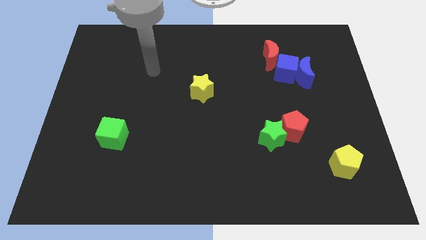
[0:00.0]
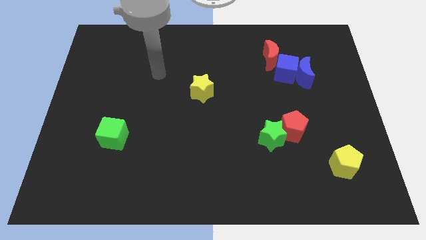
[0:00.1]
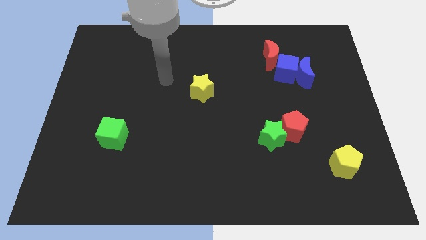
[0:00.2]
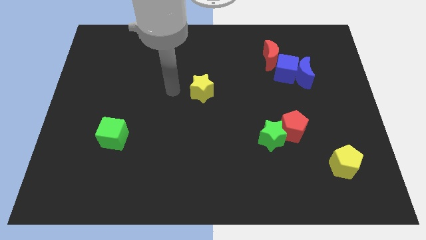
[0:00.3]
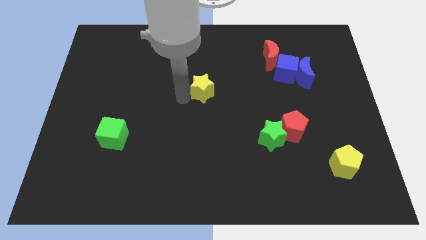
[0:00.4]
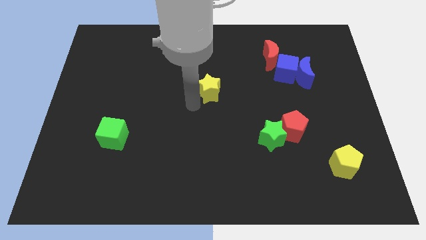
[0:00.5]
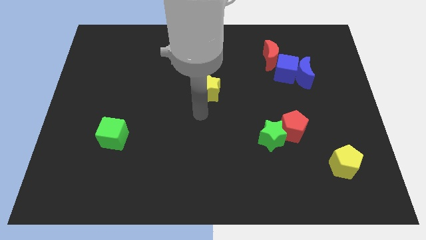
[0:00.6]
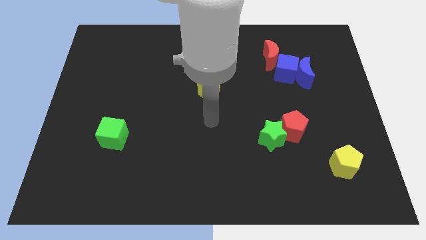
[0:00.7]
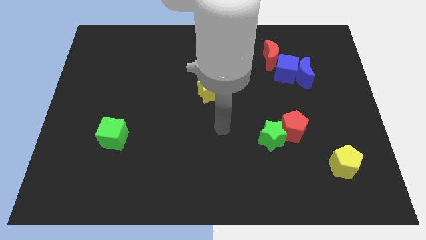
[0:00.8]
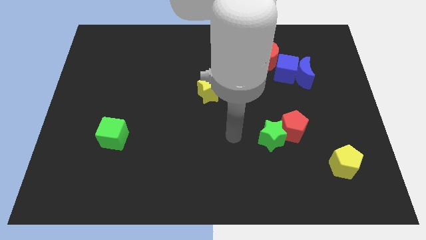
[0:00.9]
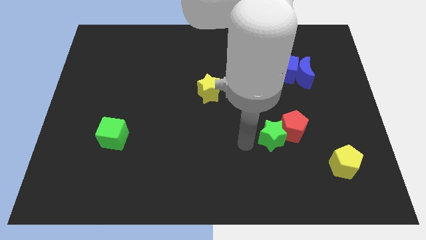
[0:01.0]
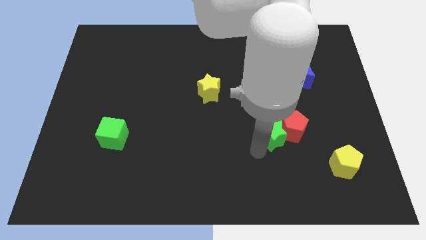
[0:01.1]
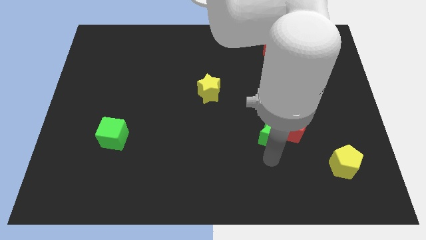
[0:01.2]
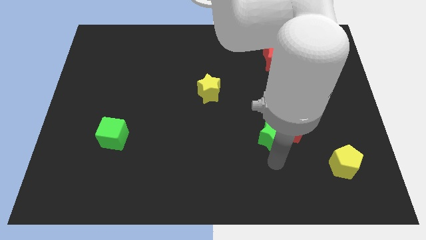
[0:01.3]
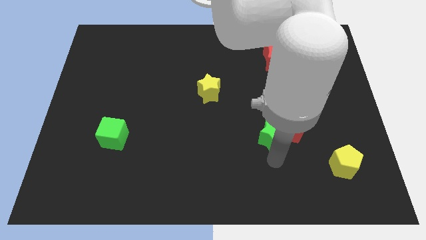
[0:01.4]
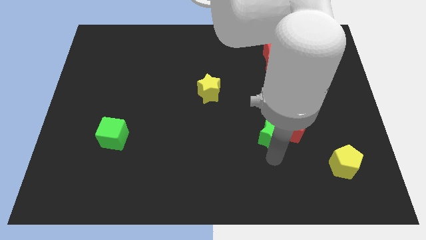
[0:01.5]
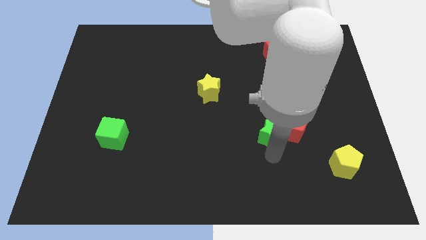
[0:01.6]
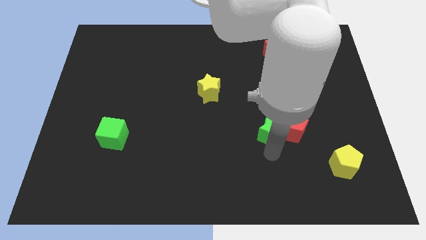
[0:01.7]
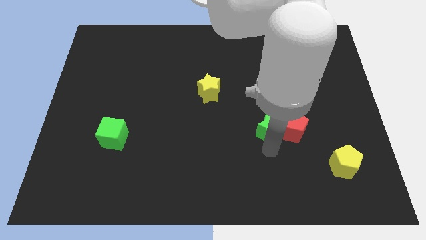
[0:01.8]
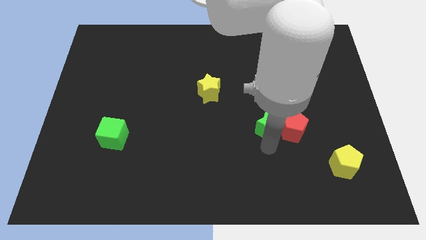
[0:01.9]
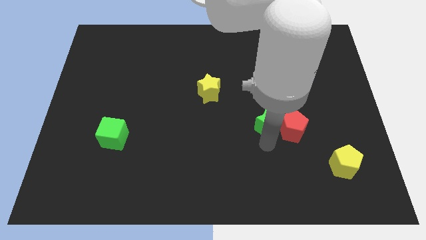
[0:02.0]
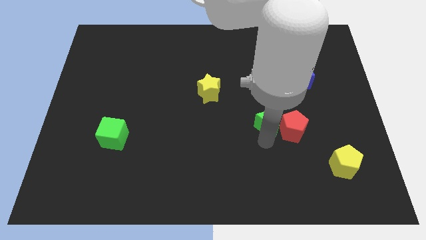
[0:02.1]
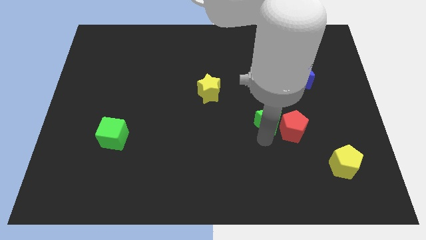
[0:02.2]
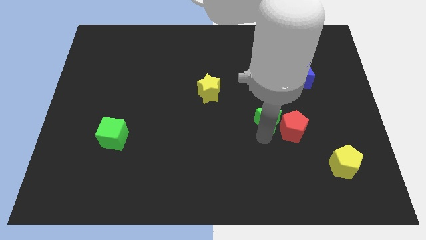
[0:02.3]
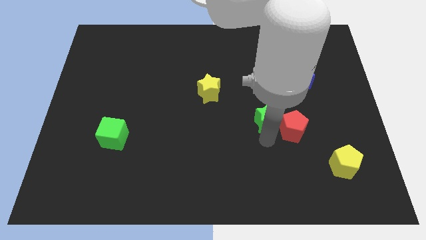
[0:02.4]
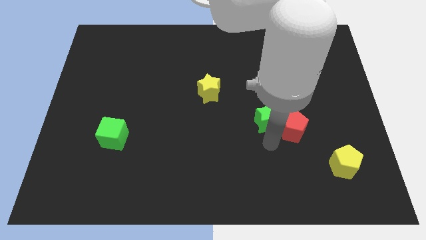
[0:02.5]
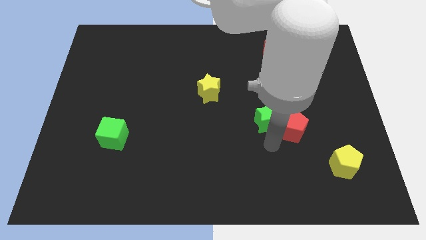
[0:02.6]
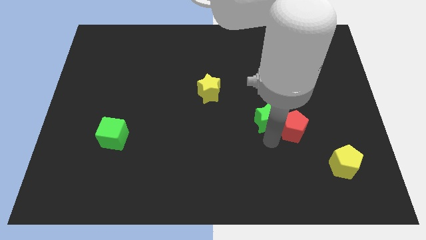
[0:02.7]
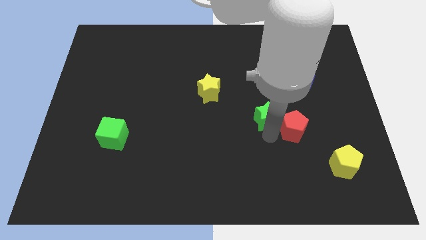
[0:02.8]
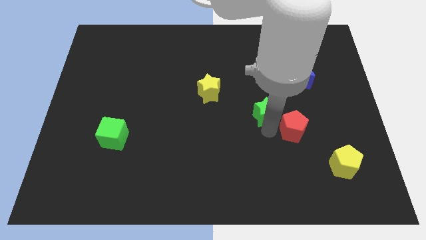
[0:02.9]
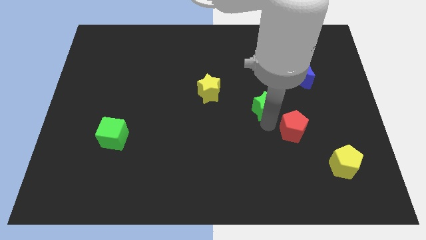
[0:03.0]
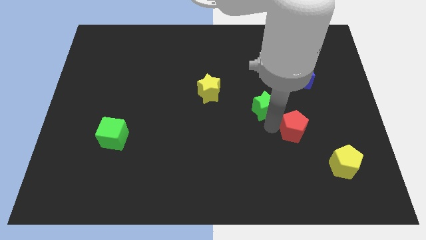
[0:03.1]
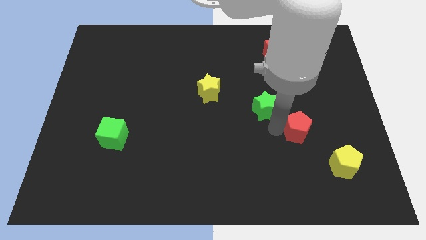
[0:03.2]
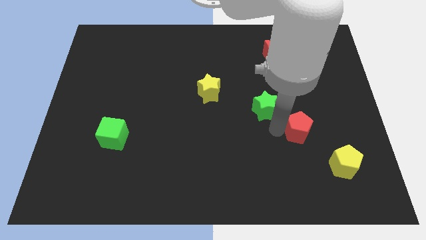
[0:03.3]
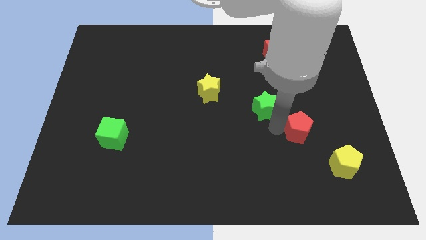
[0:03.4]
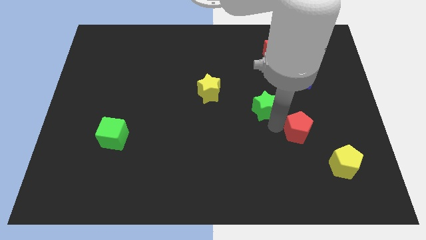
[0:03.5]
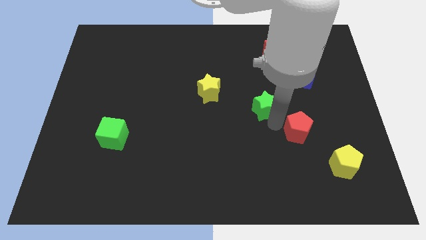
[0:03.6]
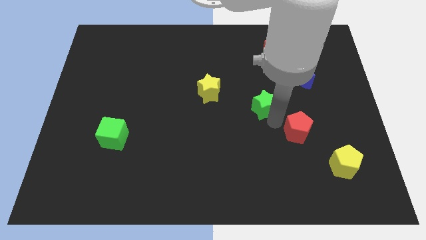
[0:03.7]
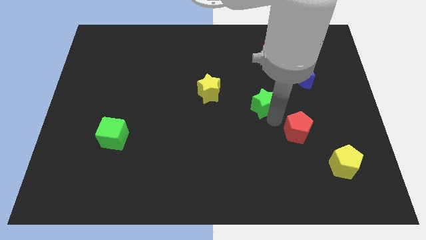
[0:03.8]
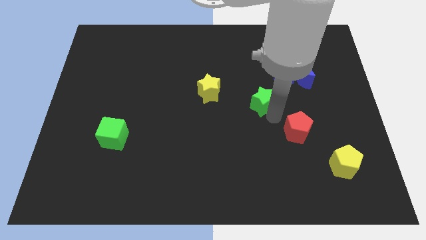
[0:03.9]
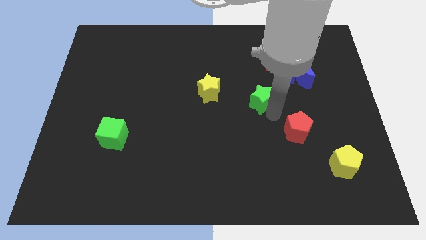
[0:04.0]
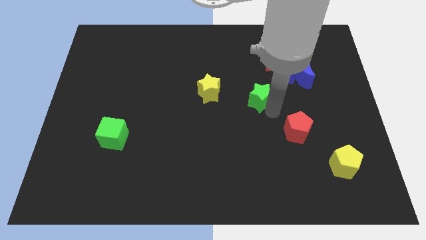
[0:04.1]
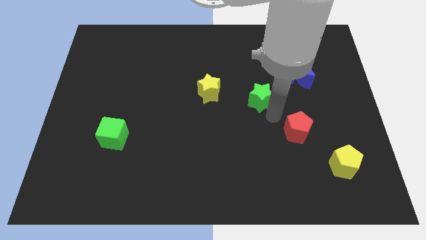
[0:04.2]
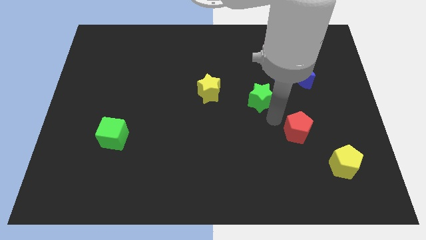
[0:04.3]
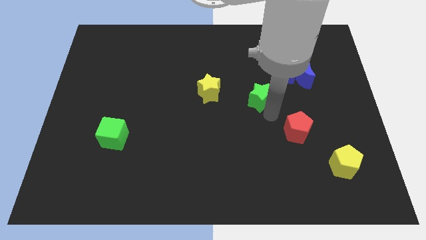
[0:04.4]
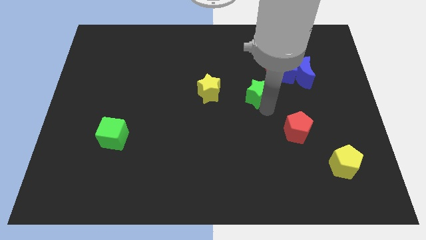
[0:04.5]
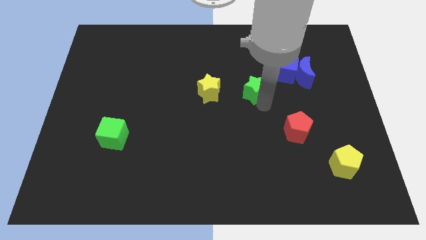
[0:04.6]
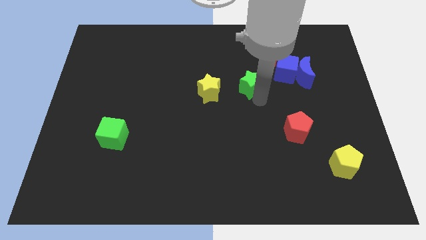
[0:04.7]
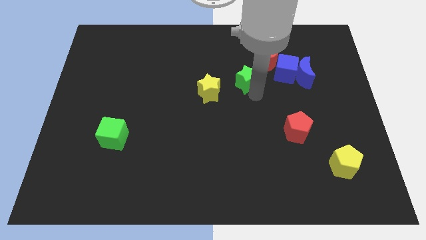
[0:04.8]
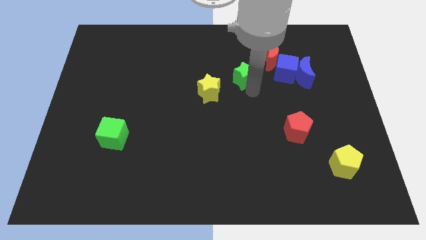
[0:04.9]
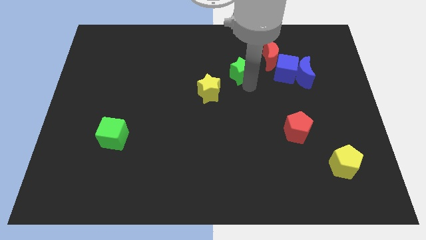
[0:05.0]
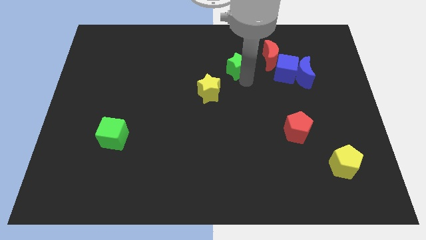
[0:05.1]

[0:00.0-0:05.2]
slide the green star to the left of the red moon

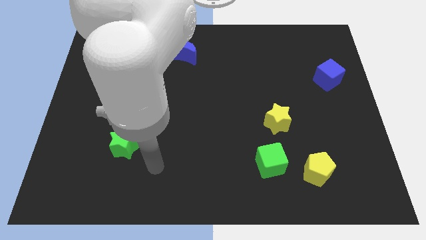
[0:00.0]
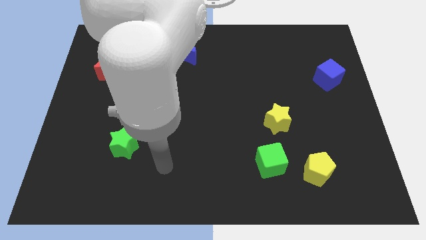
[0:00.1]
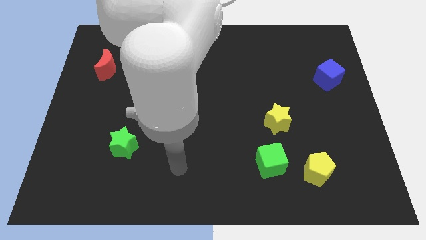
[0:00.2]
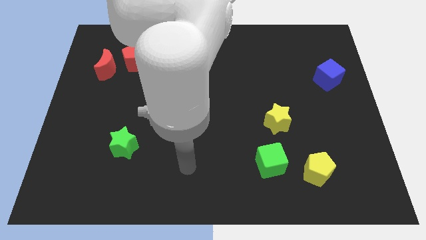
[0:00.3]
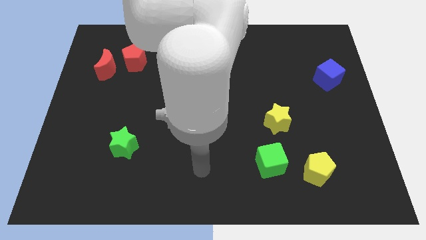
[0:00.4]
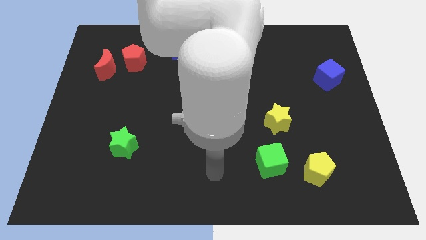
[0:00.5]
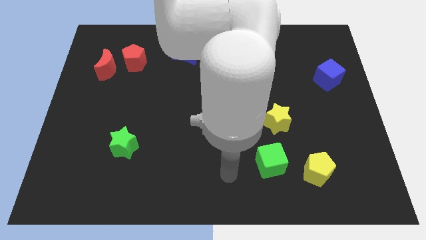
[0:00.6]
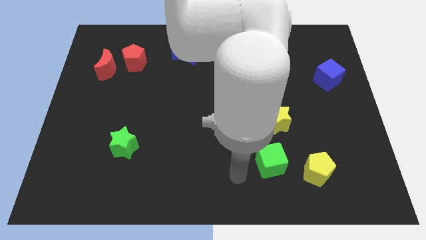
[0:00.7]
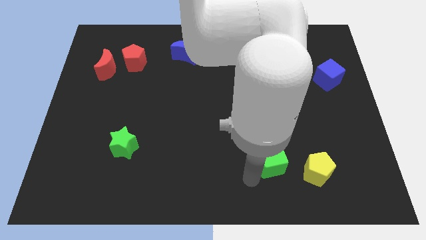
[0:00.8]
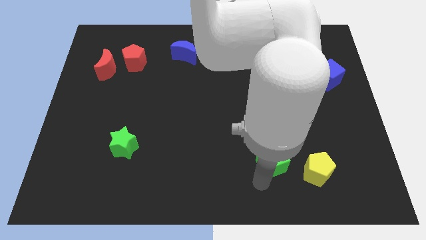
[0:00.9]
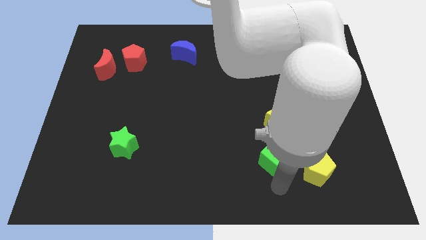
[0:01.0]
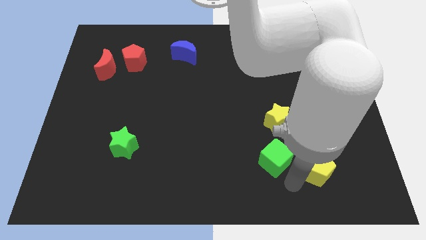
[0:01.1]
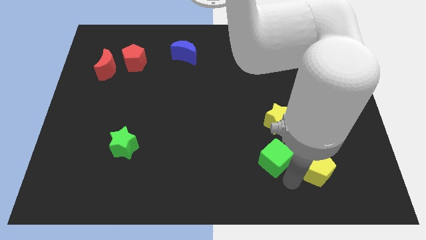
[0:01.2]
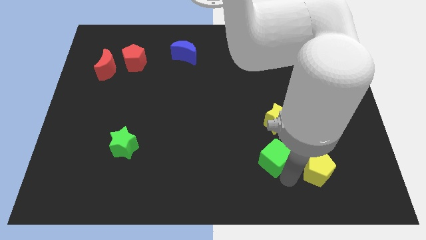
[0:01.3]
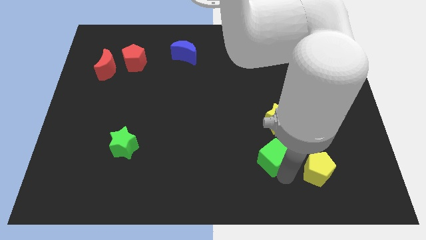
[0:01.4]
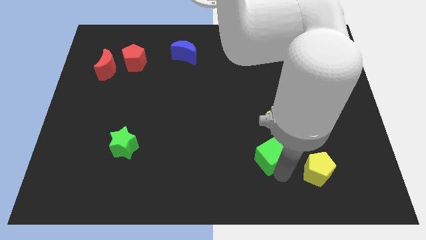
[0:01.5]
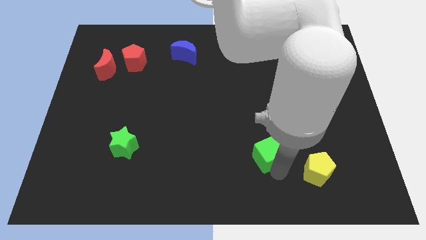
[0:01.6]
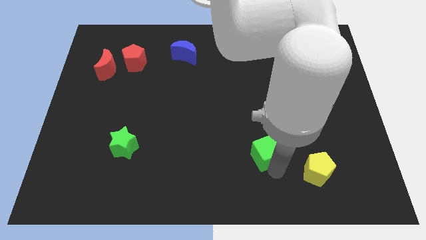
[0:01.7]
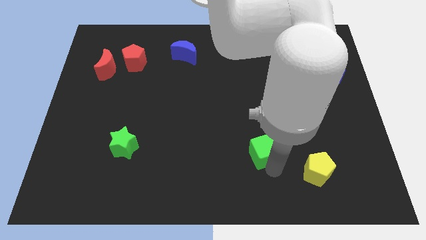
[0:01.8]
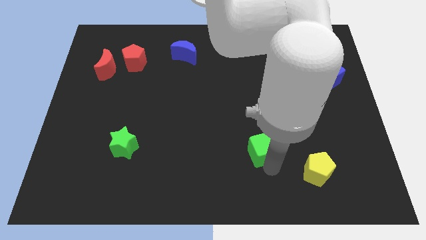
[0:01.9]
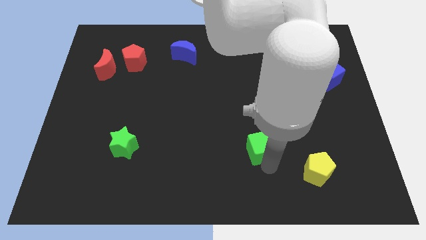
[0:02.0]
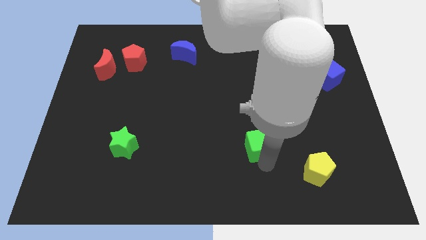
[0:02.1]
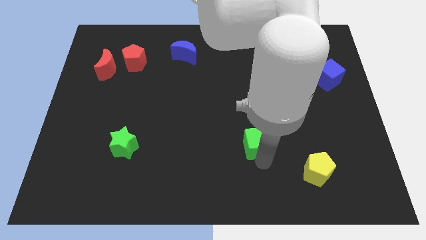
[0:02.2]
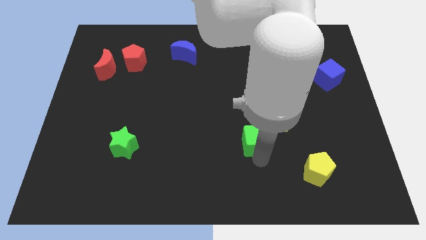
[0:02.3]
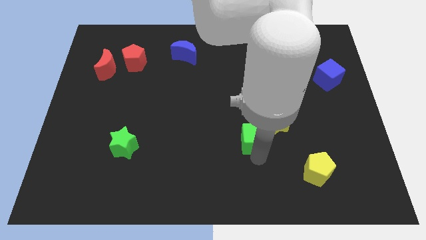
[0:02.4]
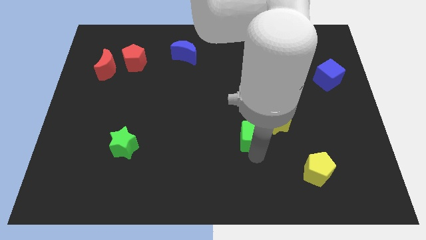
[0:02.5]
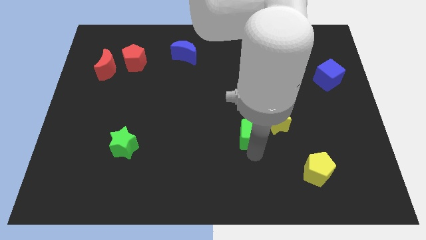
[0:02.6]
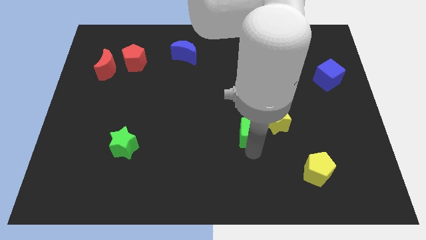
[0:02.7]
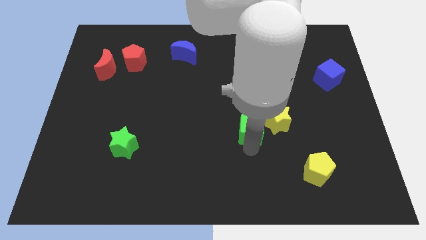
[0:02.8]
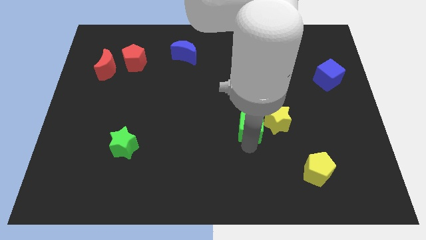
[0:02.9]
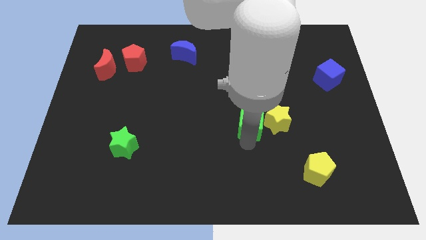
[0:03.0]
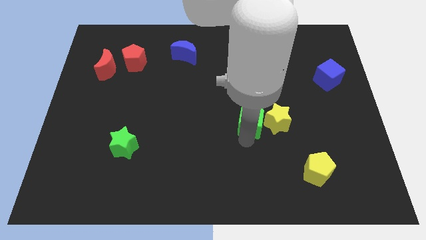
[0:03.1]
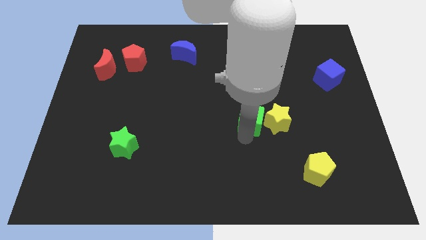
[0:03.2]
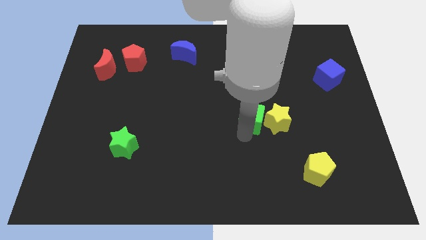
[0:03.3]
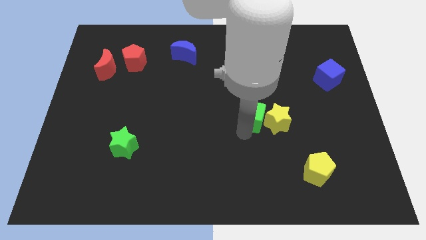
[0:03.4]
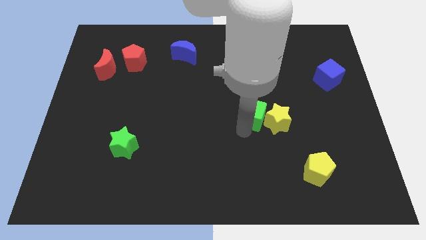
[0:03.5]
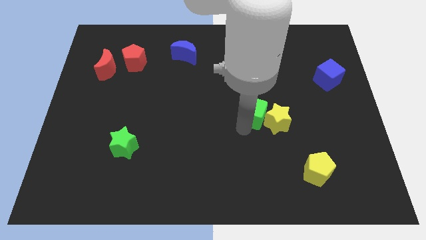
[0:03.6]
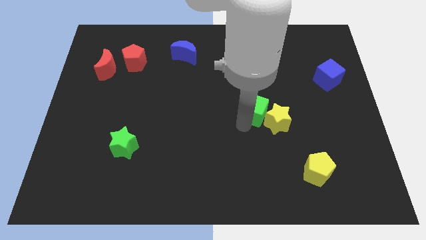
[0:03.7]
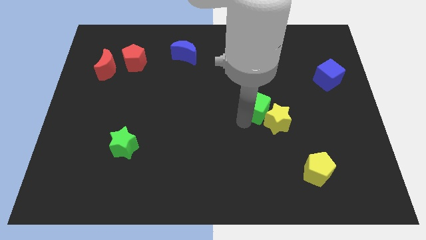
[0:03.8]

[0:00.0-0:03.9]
push the green cube above the yellow star
